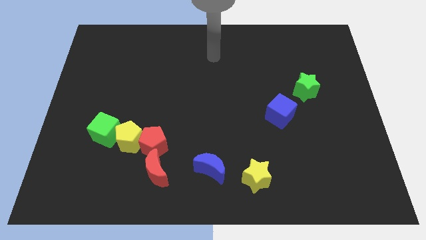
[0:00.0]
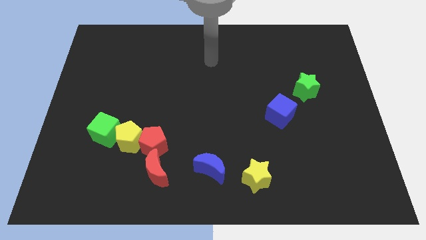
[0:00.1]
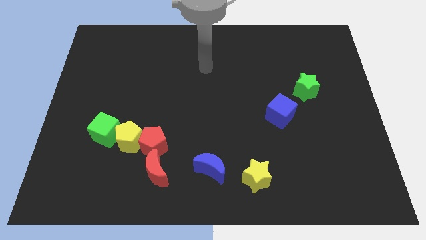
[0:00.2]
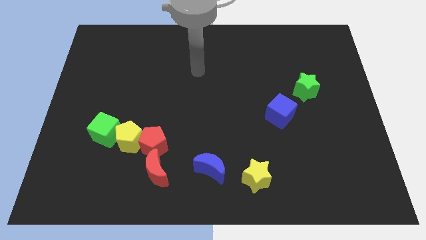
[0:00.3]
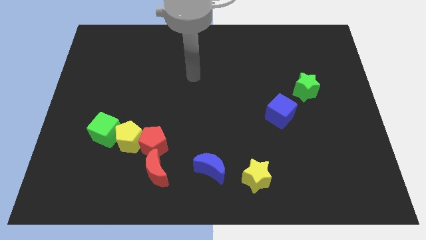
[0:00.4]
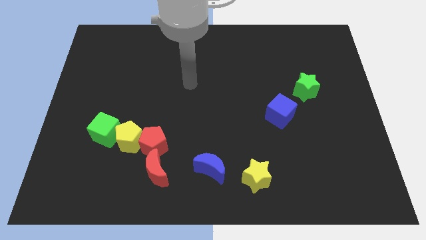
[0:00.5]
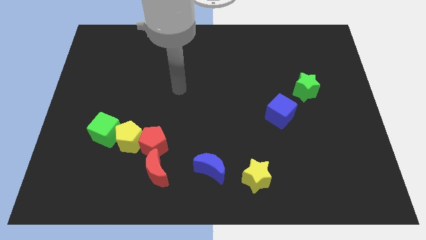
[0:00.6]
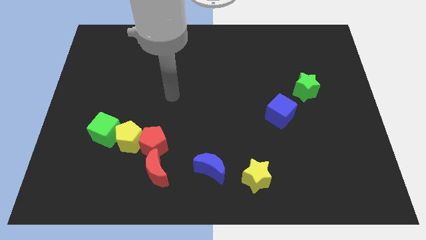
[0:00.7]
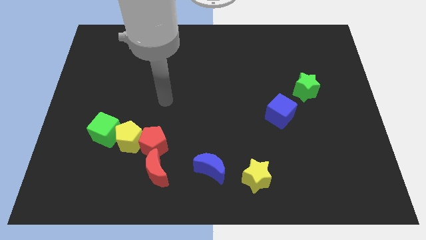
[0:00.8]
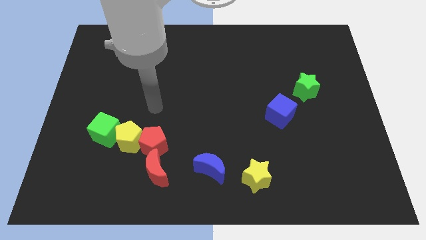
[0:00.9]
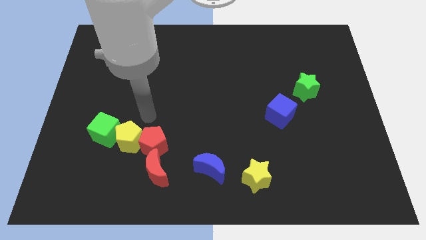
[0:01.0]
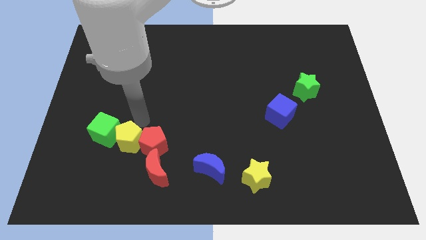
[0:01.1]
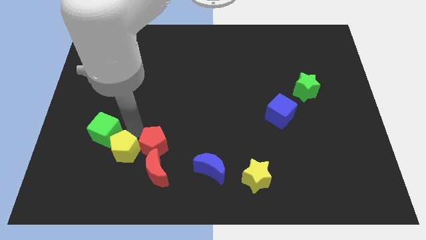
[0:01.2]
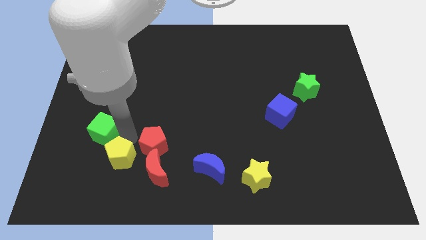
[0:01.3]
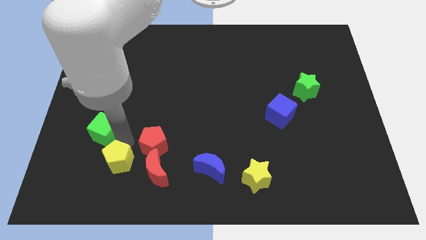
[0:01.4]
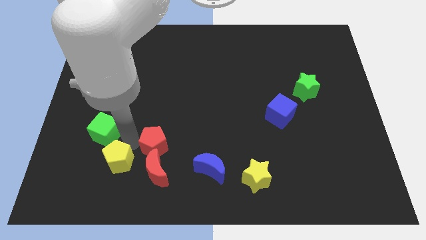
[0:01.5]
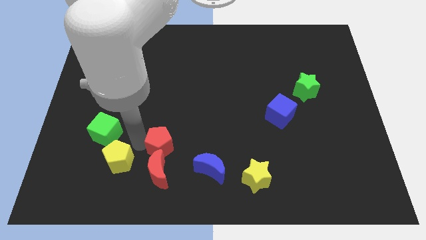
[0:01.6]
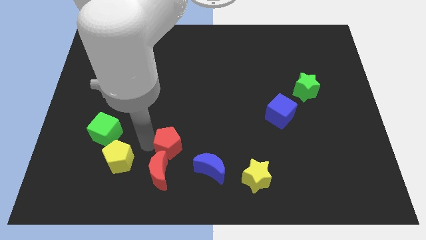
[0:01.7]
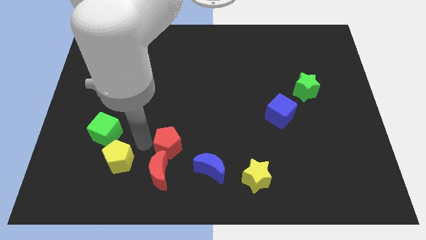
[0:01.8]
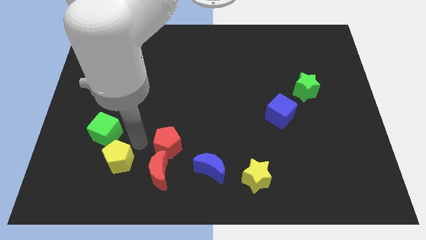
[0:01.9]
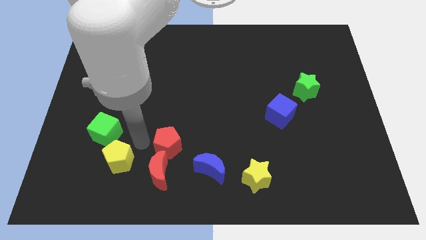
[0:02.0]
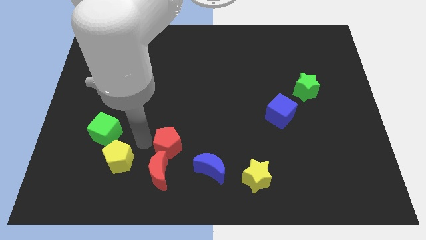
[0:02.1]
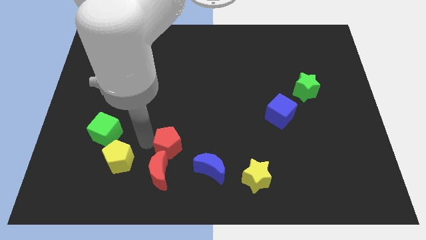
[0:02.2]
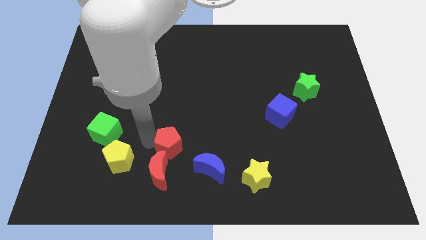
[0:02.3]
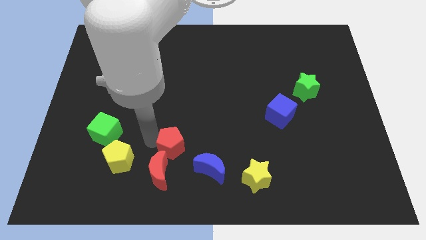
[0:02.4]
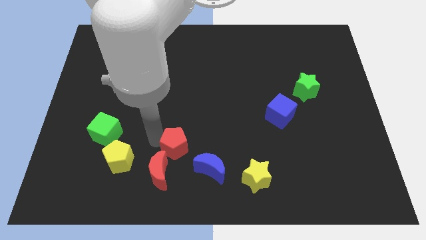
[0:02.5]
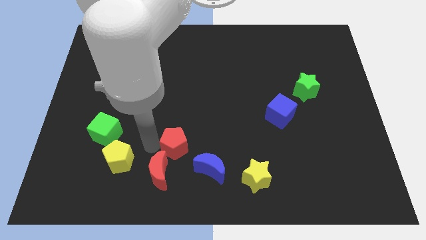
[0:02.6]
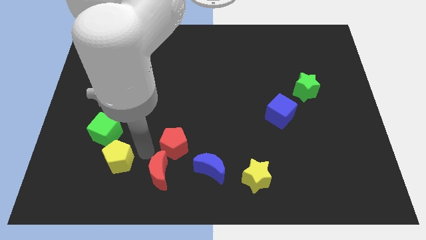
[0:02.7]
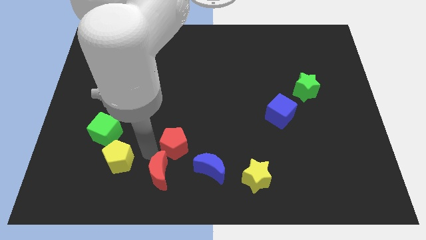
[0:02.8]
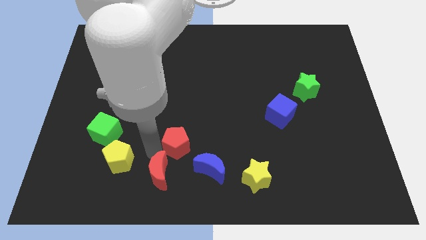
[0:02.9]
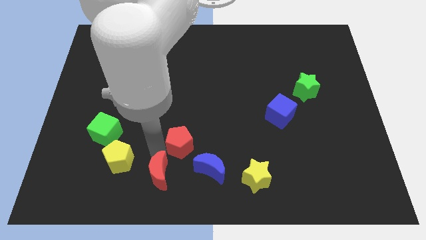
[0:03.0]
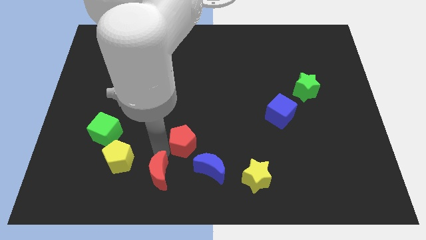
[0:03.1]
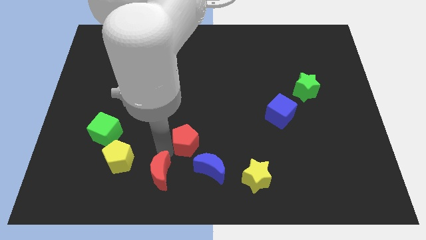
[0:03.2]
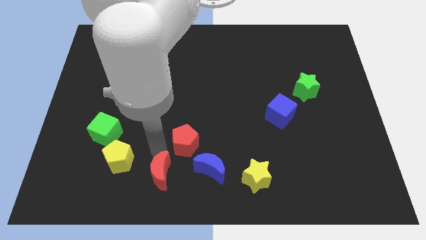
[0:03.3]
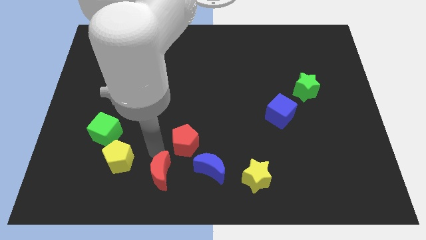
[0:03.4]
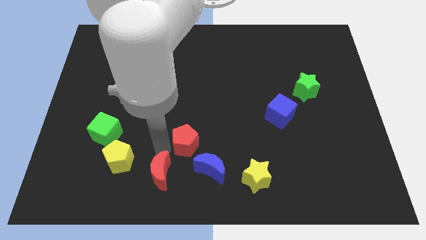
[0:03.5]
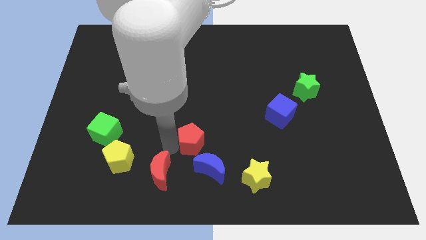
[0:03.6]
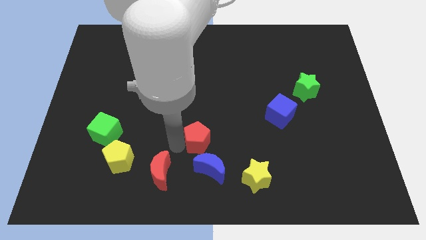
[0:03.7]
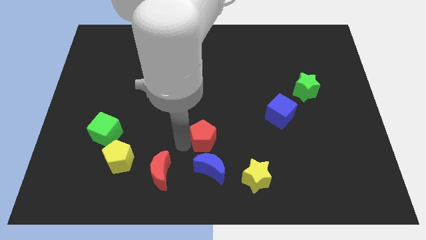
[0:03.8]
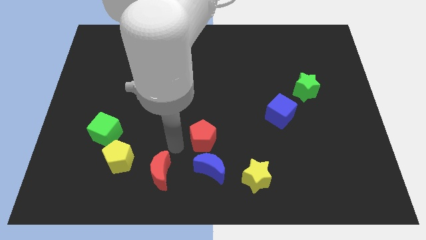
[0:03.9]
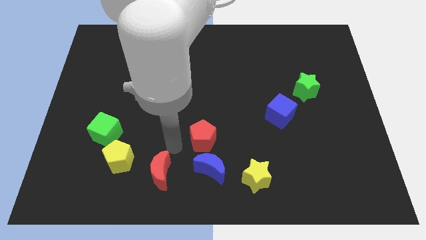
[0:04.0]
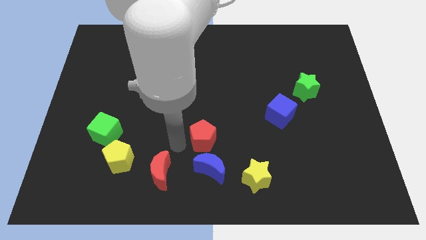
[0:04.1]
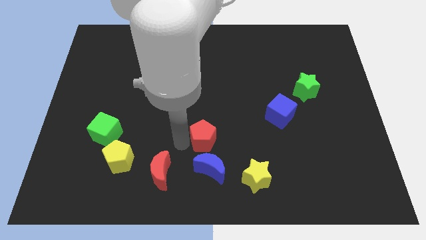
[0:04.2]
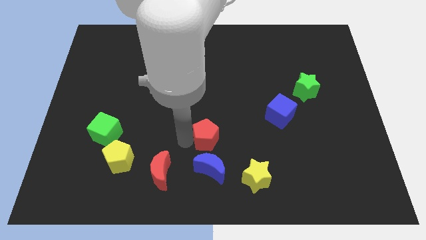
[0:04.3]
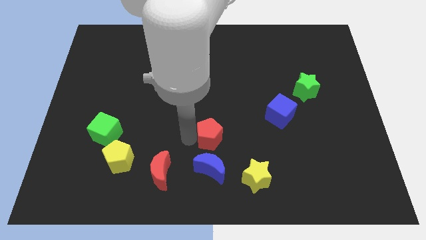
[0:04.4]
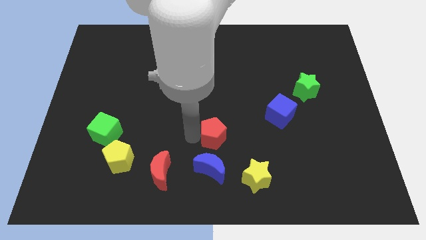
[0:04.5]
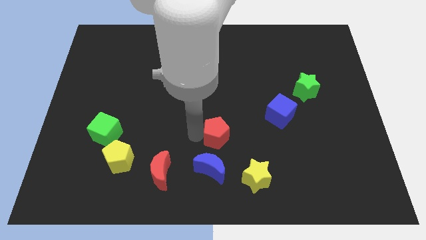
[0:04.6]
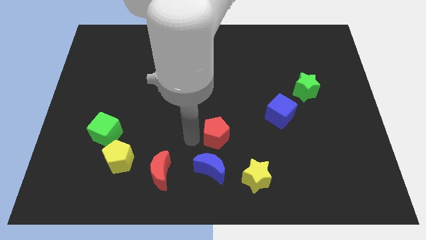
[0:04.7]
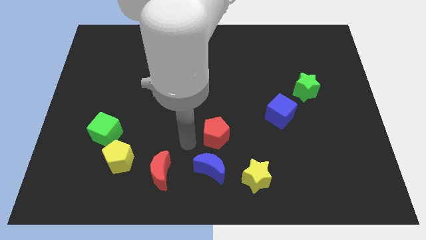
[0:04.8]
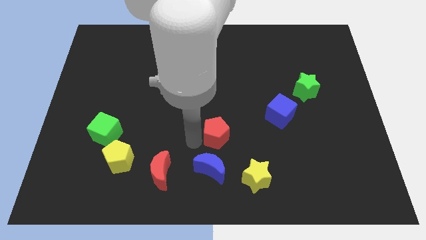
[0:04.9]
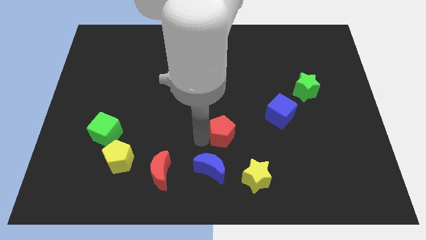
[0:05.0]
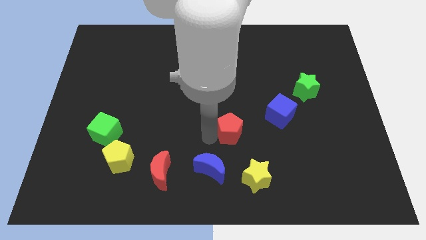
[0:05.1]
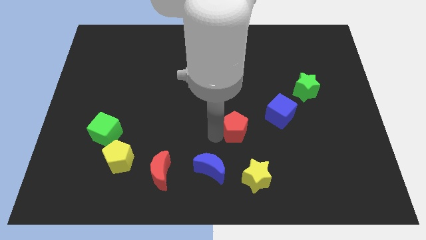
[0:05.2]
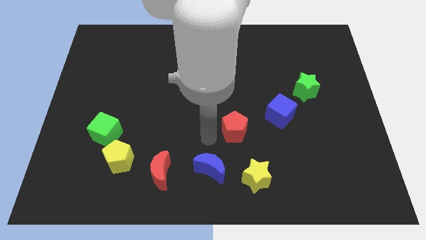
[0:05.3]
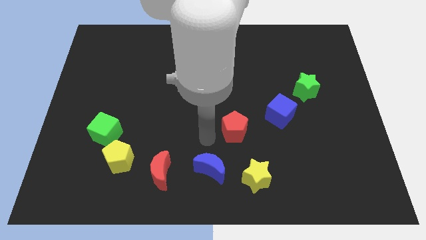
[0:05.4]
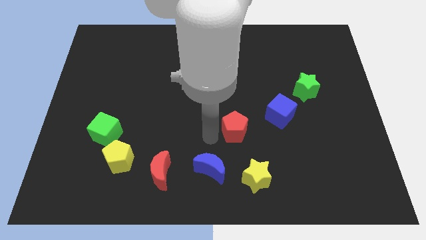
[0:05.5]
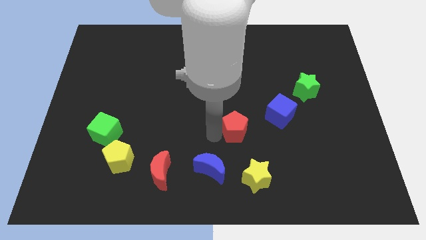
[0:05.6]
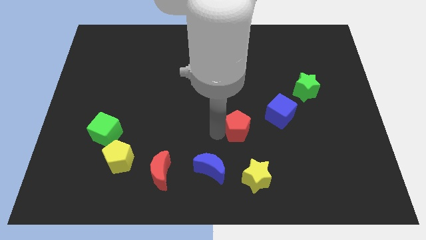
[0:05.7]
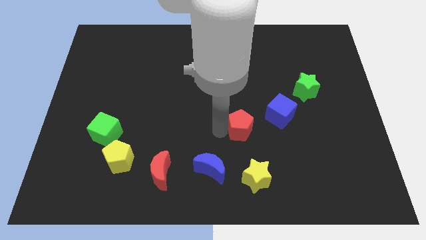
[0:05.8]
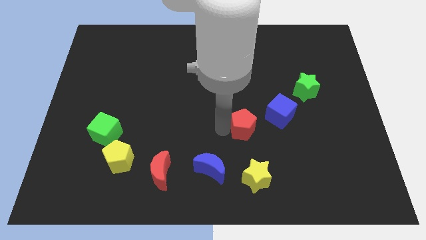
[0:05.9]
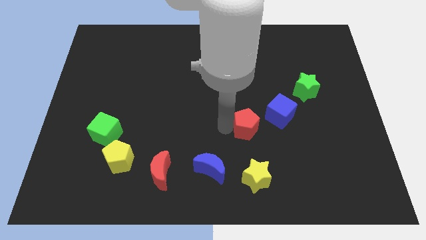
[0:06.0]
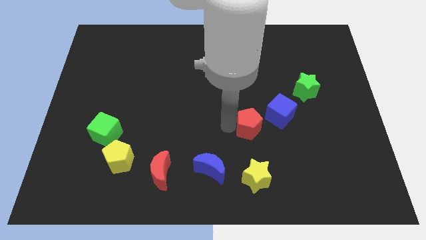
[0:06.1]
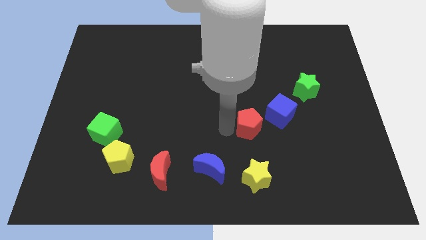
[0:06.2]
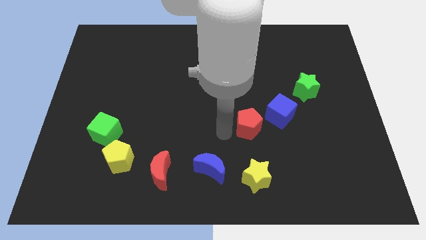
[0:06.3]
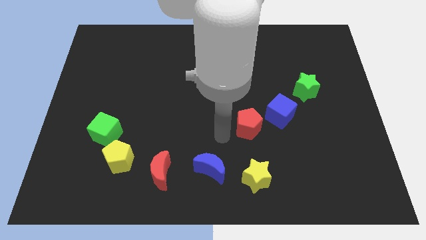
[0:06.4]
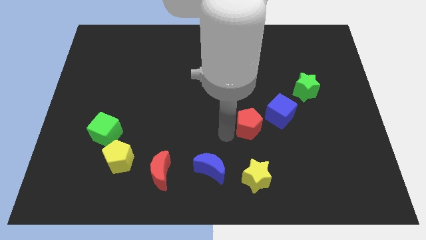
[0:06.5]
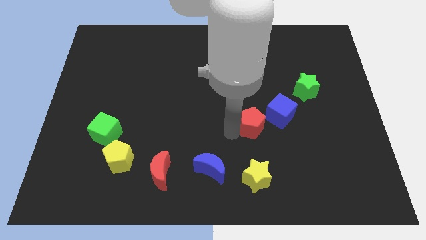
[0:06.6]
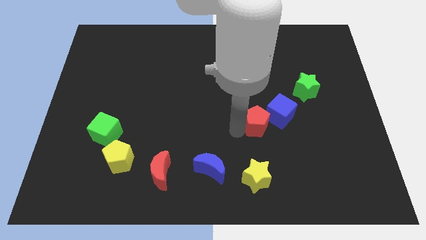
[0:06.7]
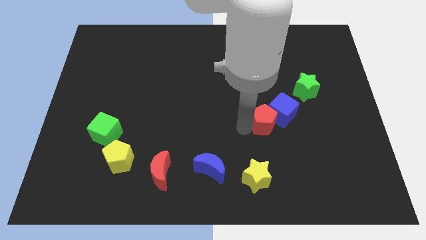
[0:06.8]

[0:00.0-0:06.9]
push the red pentagon next to the blue cube

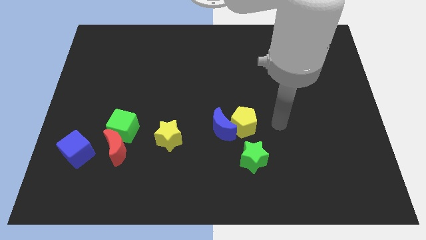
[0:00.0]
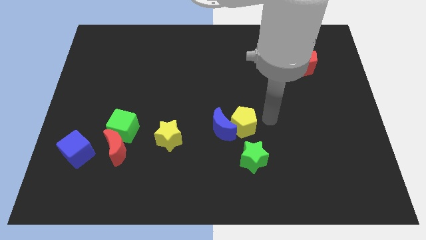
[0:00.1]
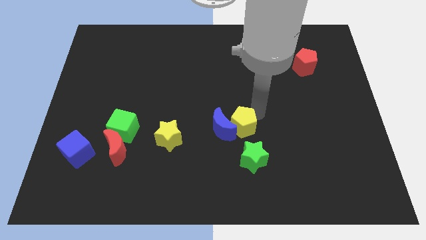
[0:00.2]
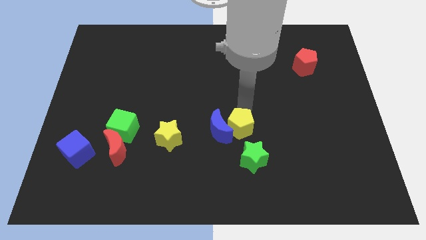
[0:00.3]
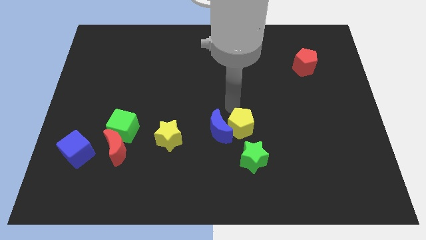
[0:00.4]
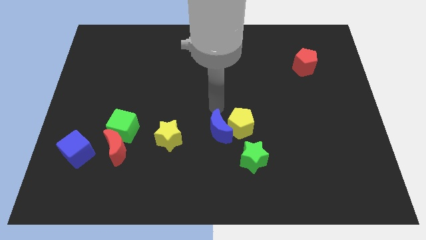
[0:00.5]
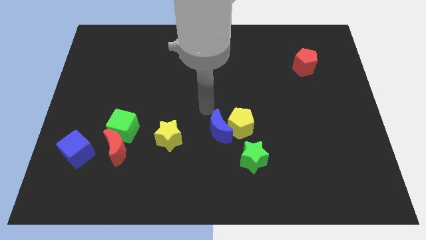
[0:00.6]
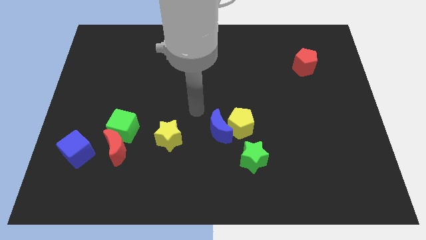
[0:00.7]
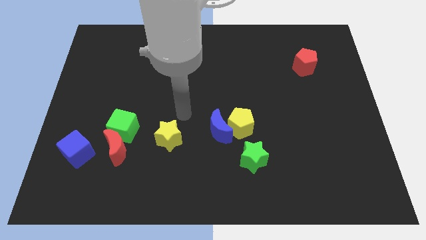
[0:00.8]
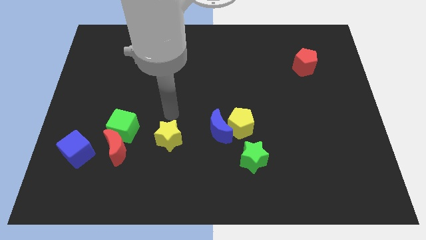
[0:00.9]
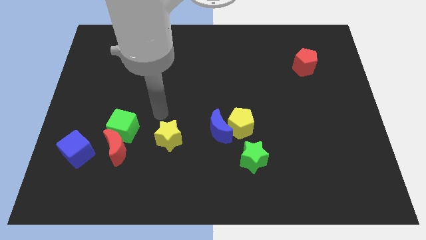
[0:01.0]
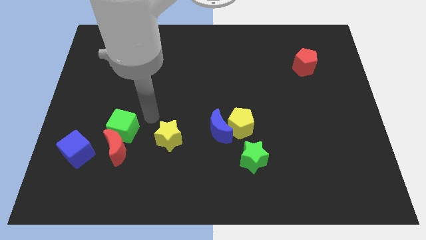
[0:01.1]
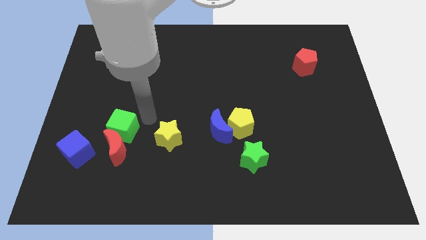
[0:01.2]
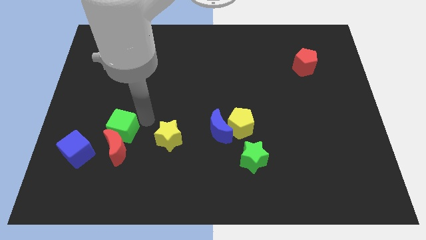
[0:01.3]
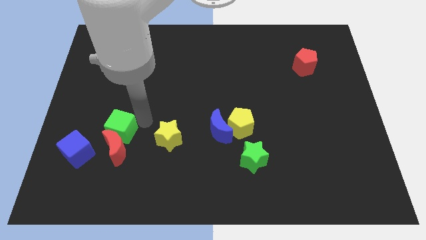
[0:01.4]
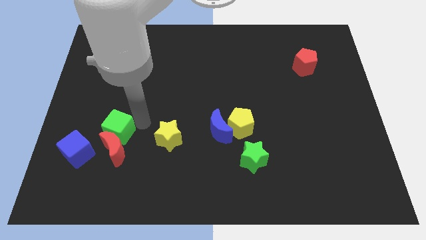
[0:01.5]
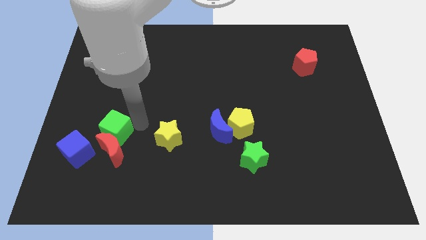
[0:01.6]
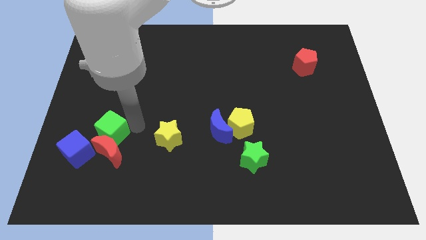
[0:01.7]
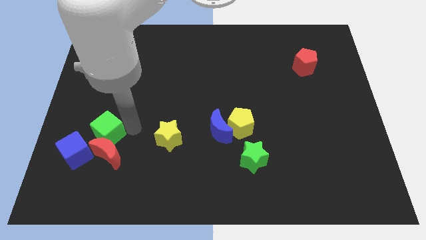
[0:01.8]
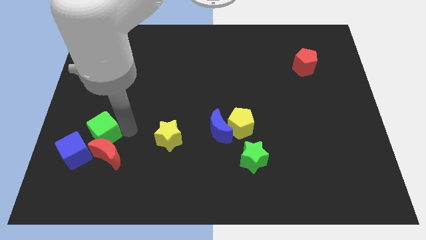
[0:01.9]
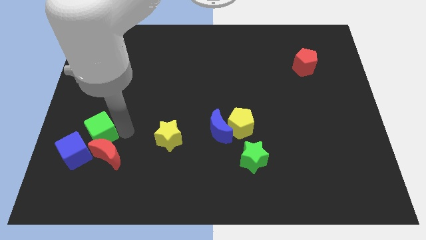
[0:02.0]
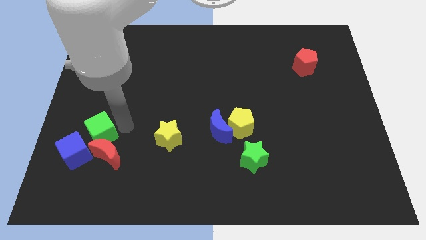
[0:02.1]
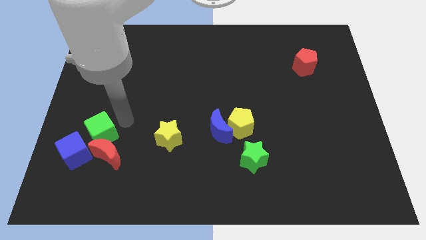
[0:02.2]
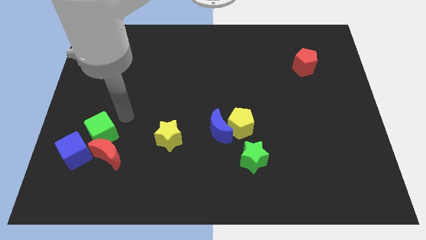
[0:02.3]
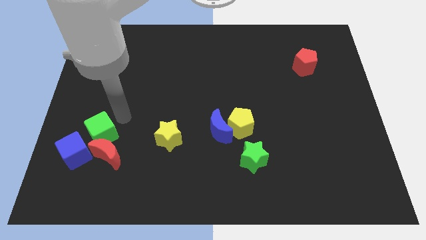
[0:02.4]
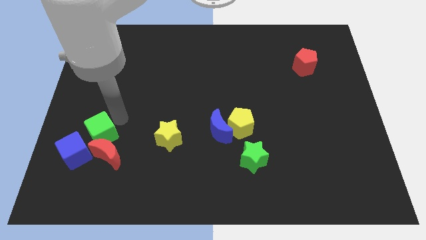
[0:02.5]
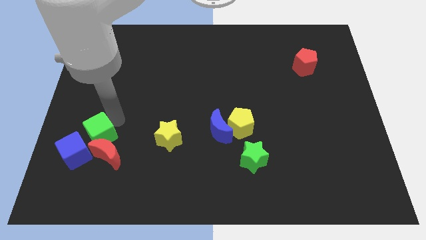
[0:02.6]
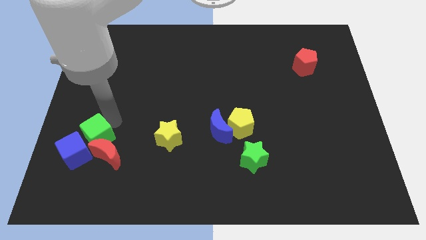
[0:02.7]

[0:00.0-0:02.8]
put the green cube to the blue cube
